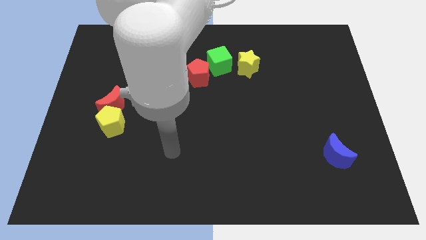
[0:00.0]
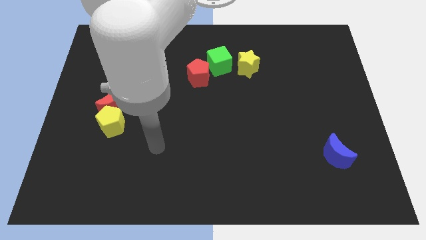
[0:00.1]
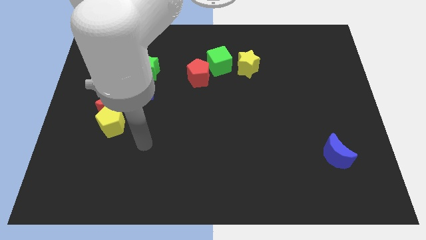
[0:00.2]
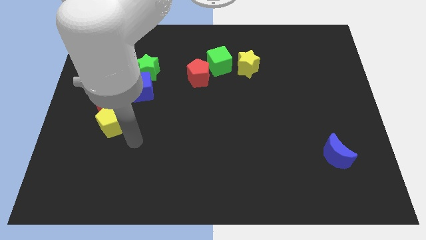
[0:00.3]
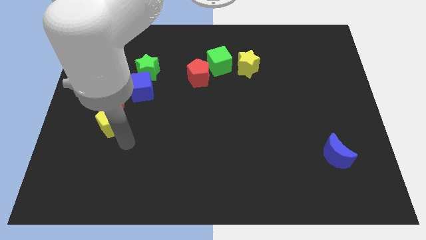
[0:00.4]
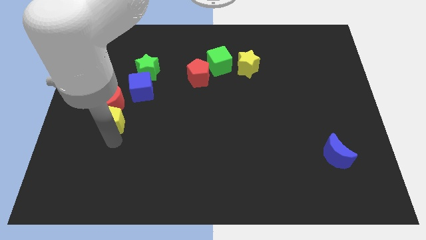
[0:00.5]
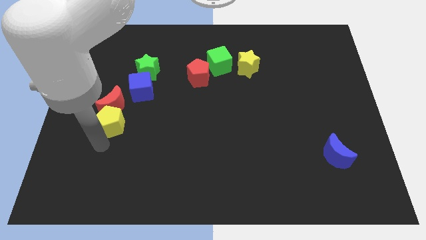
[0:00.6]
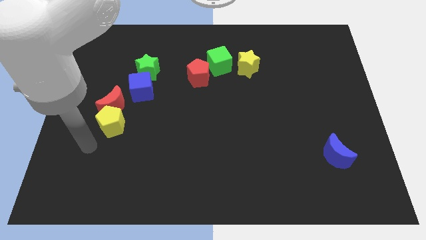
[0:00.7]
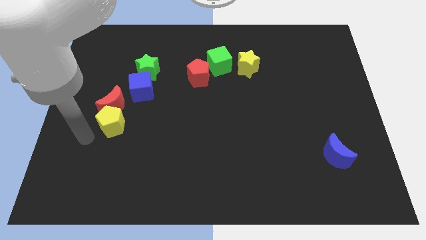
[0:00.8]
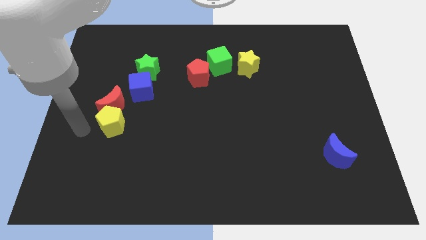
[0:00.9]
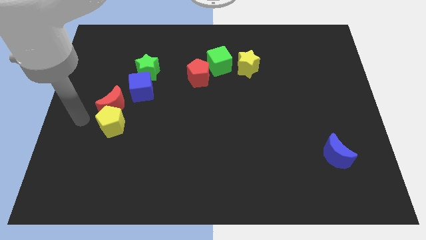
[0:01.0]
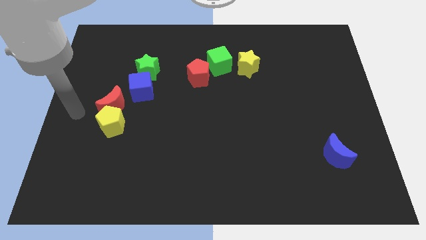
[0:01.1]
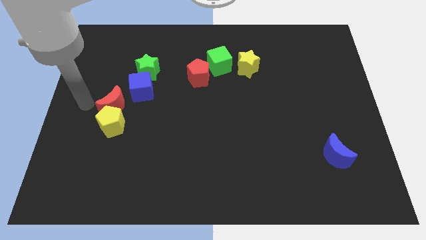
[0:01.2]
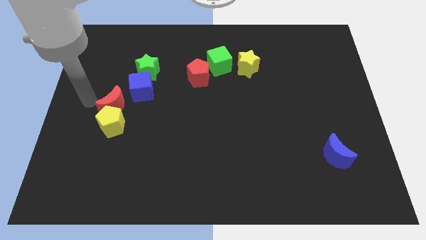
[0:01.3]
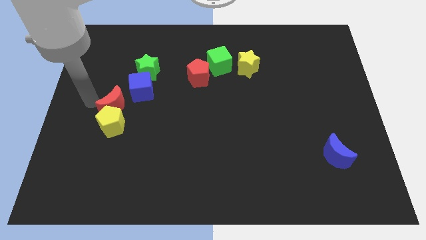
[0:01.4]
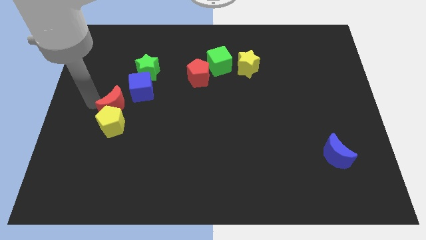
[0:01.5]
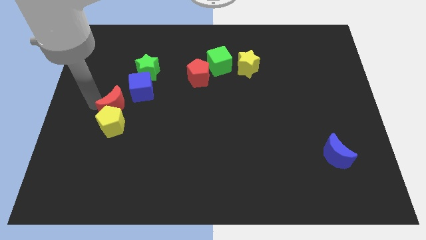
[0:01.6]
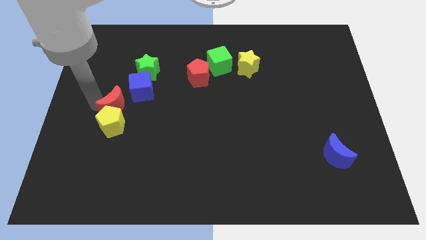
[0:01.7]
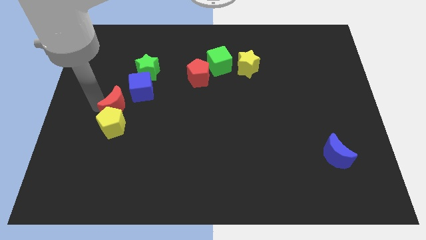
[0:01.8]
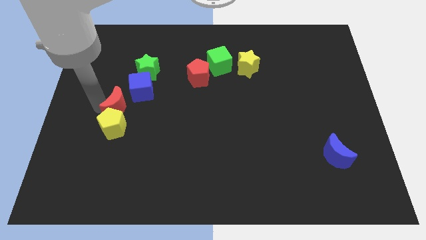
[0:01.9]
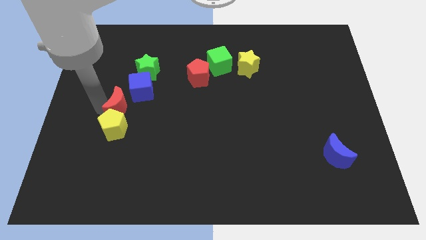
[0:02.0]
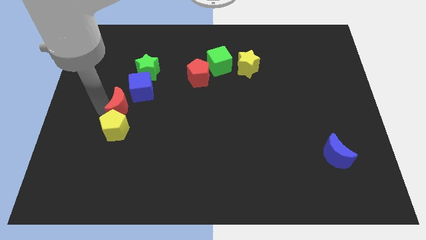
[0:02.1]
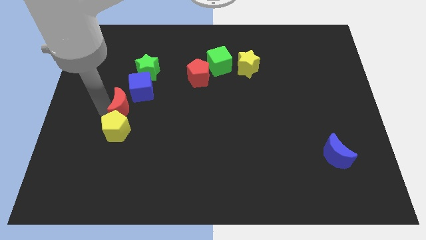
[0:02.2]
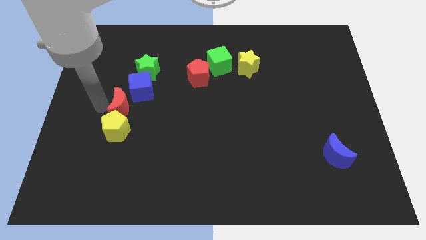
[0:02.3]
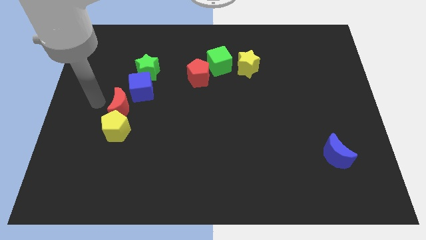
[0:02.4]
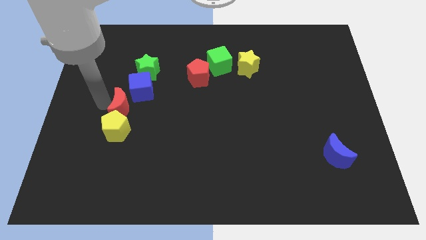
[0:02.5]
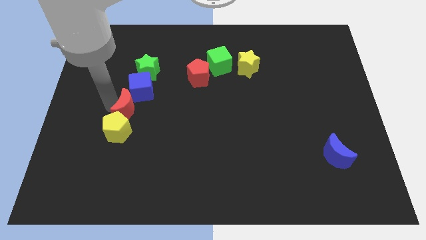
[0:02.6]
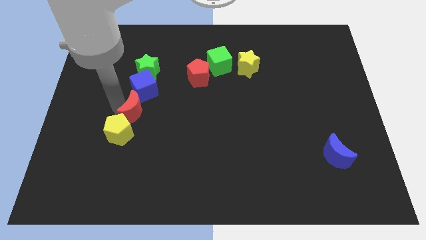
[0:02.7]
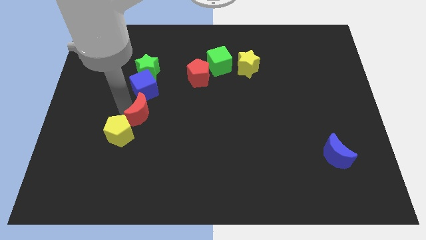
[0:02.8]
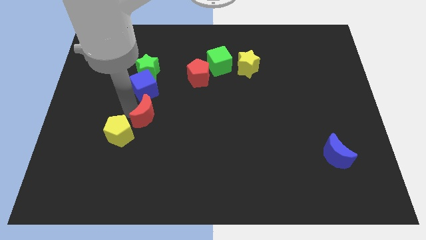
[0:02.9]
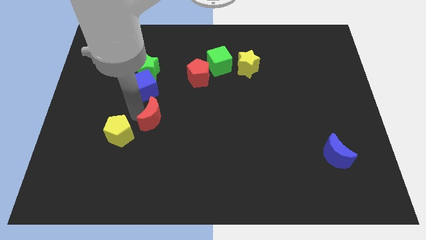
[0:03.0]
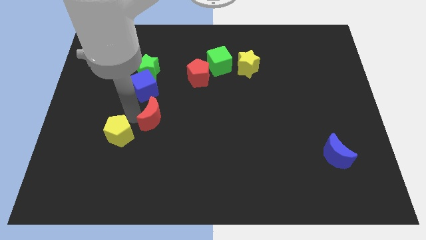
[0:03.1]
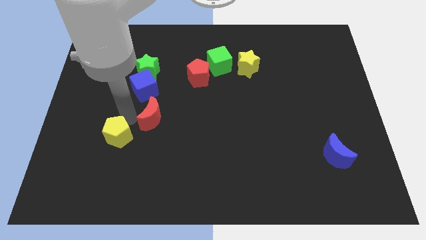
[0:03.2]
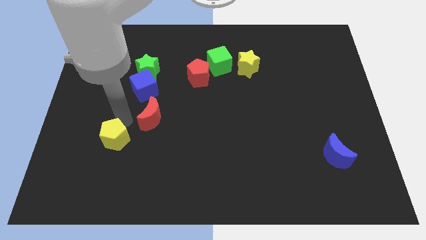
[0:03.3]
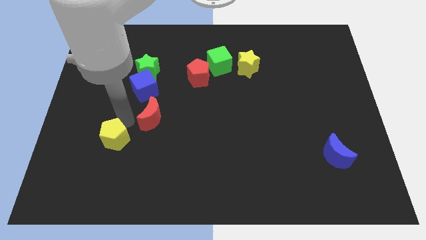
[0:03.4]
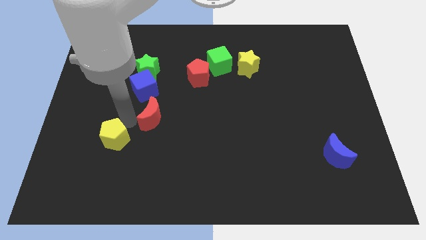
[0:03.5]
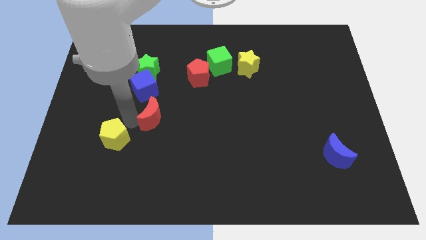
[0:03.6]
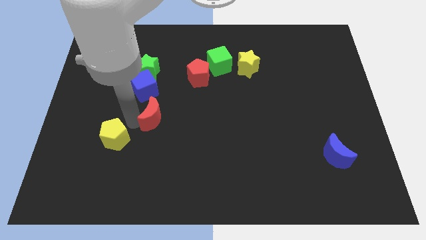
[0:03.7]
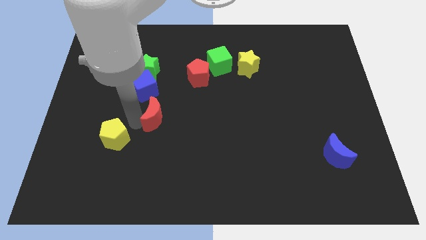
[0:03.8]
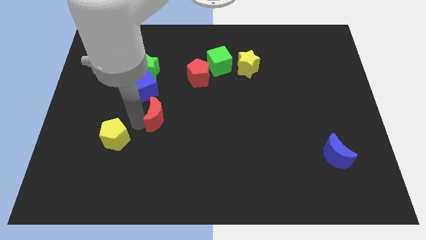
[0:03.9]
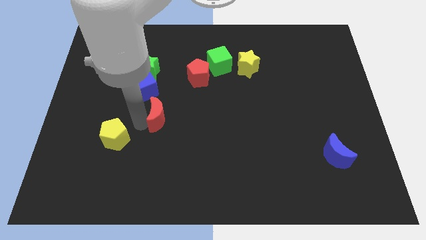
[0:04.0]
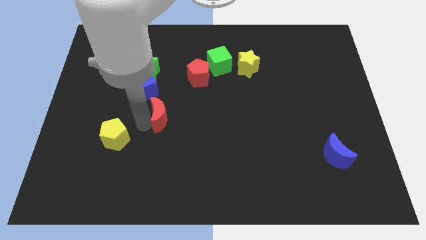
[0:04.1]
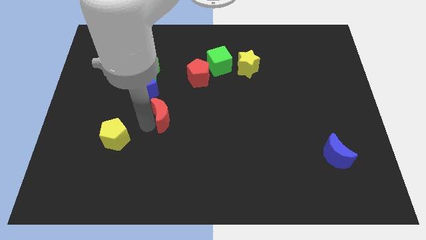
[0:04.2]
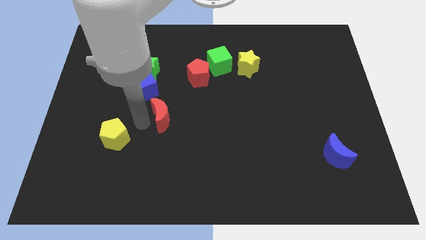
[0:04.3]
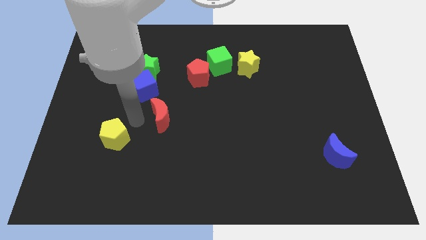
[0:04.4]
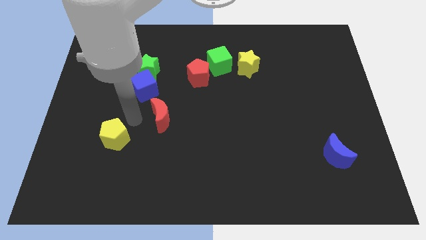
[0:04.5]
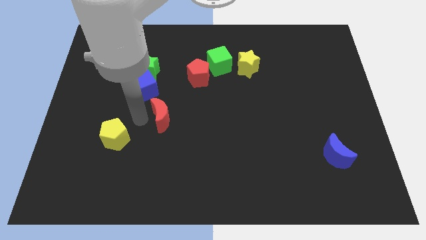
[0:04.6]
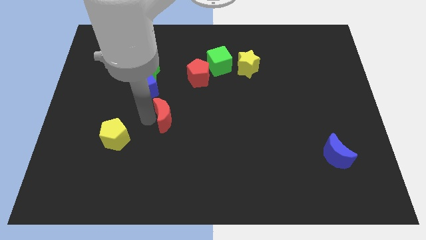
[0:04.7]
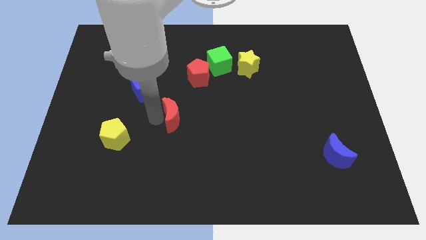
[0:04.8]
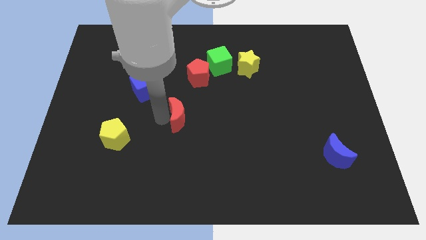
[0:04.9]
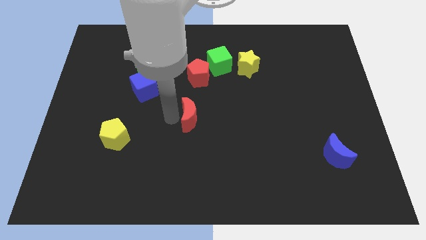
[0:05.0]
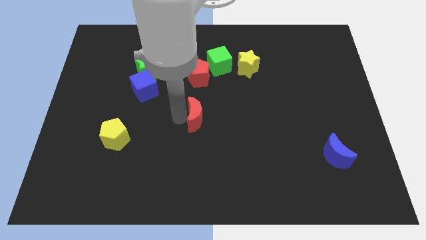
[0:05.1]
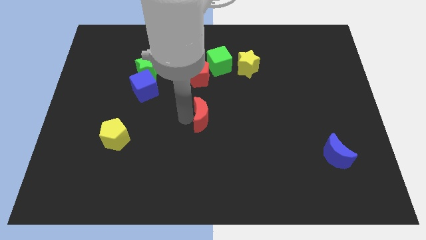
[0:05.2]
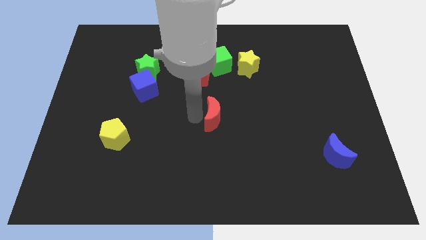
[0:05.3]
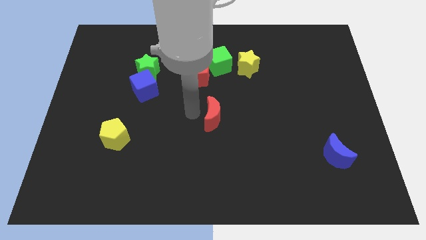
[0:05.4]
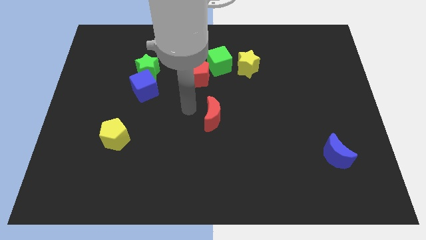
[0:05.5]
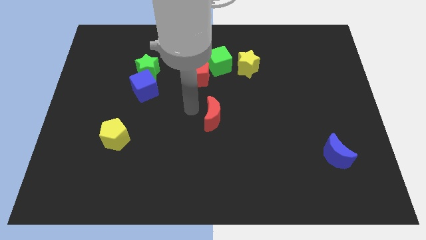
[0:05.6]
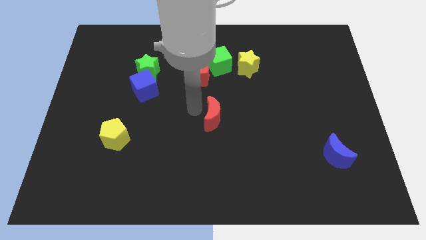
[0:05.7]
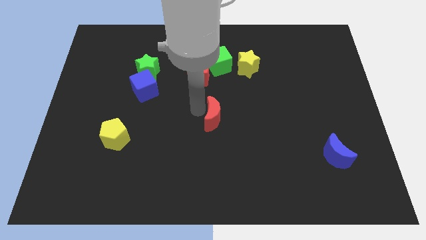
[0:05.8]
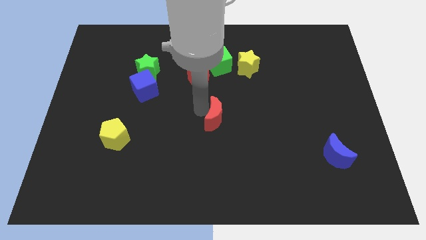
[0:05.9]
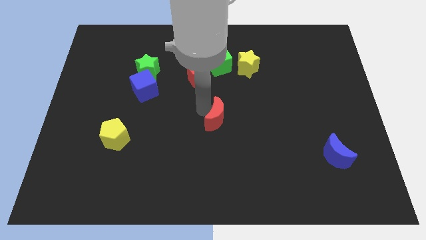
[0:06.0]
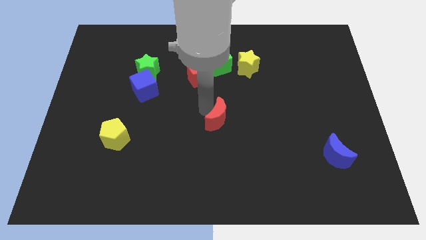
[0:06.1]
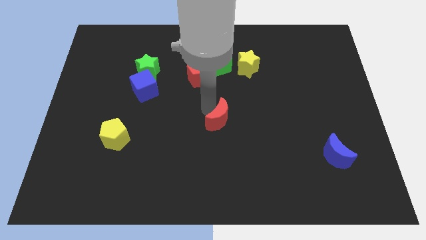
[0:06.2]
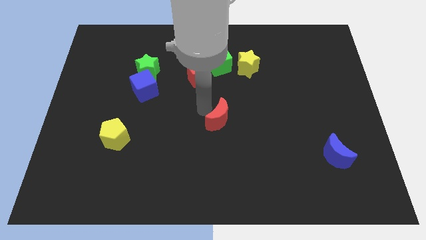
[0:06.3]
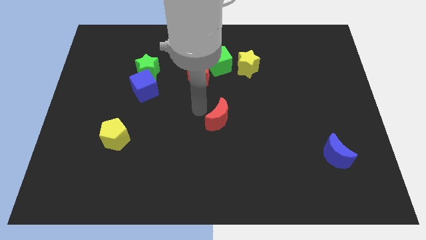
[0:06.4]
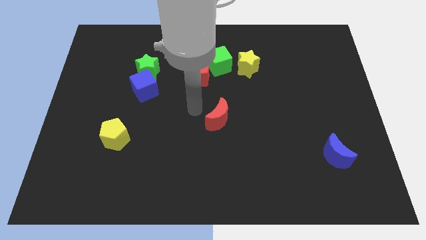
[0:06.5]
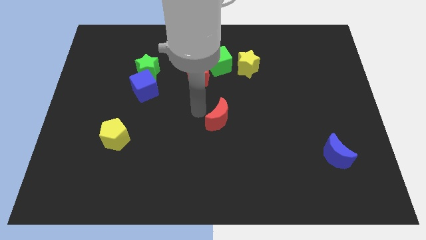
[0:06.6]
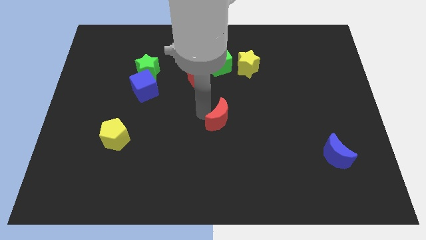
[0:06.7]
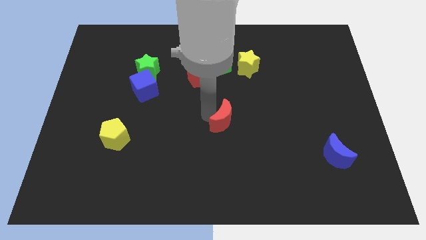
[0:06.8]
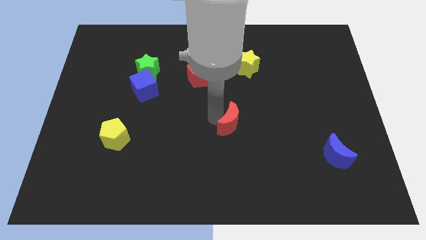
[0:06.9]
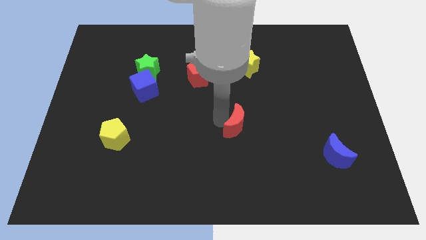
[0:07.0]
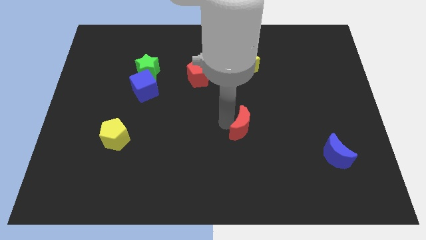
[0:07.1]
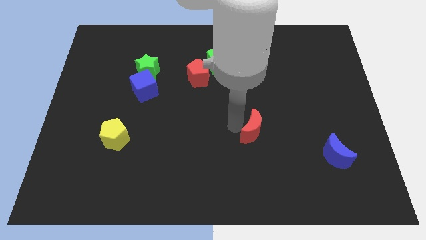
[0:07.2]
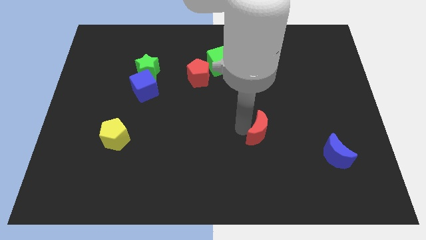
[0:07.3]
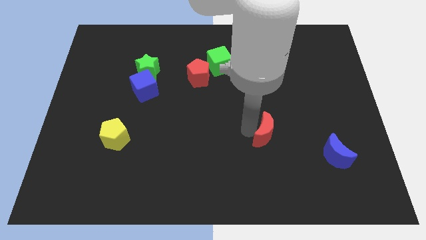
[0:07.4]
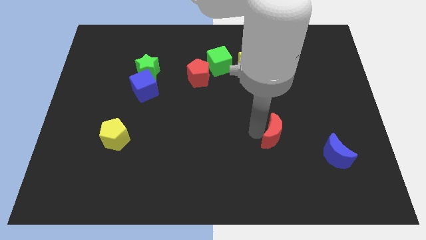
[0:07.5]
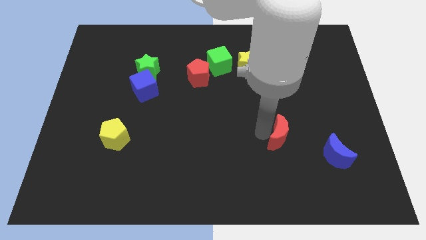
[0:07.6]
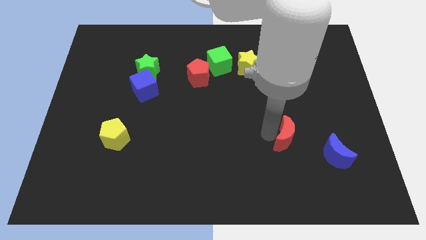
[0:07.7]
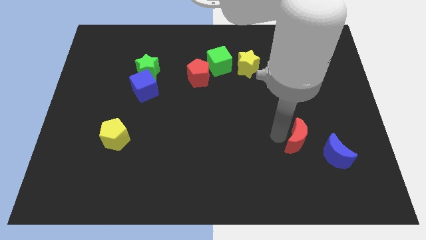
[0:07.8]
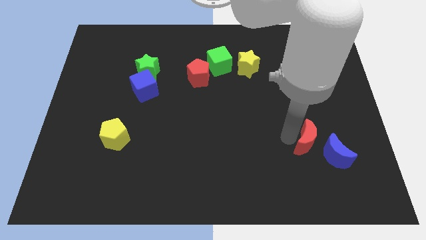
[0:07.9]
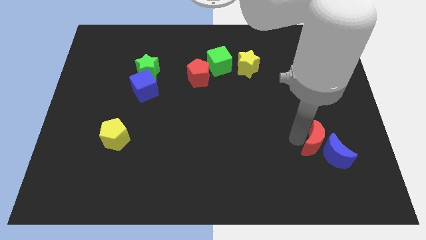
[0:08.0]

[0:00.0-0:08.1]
put the red moon close to the blue moon
